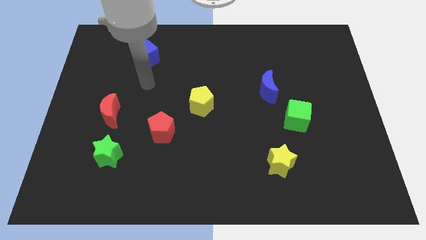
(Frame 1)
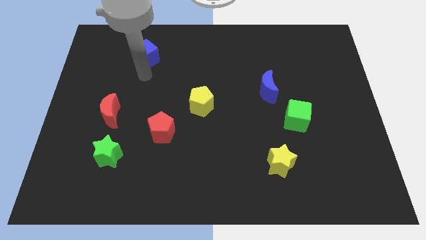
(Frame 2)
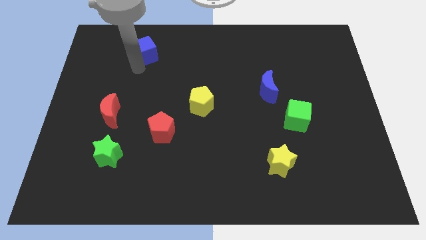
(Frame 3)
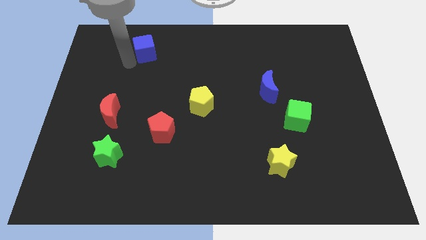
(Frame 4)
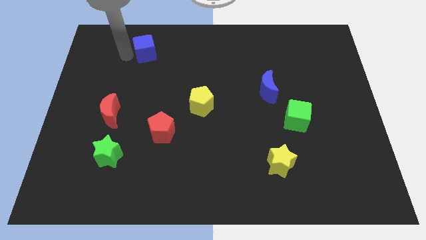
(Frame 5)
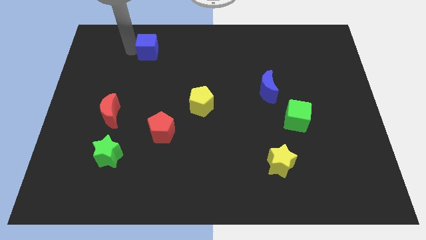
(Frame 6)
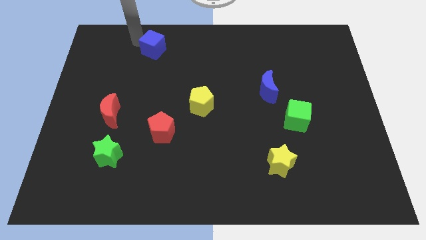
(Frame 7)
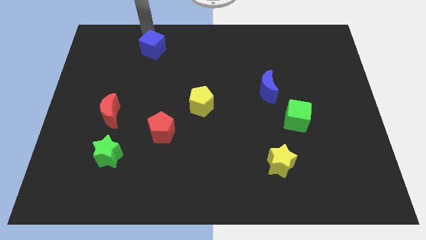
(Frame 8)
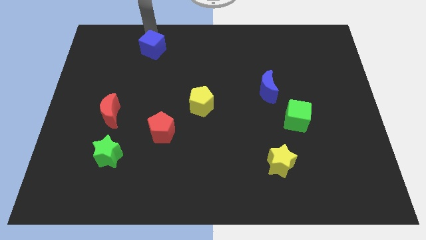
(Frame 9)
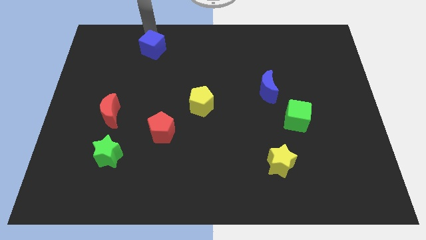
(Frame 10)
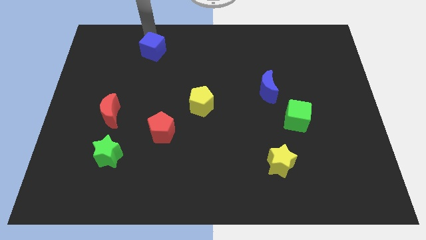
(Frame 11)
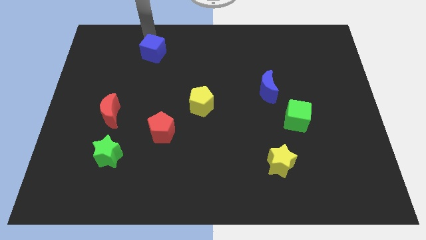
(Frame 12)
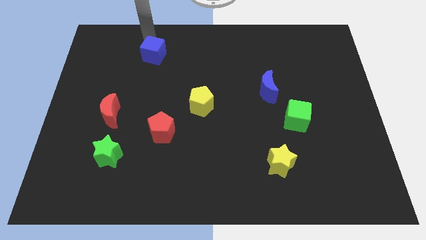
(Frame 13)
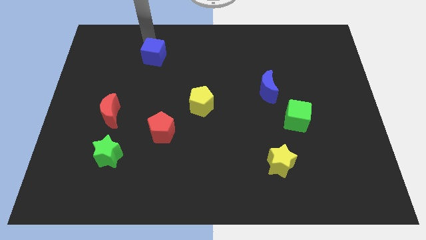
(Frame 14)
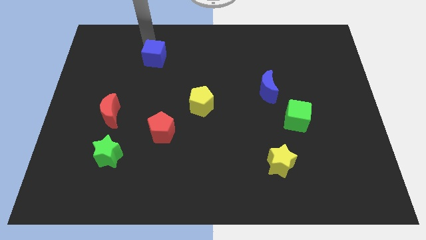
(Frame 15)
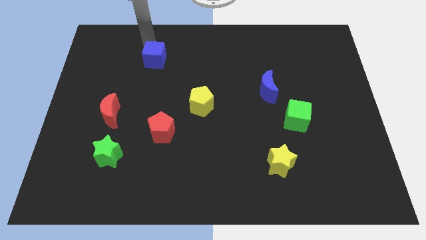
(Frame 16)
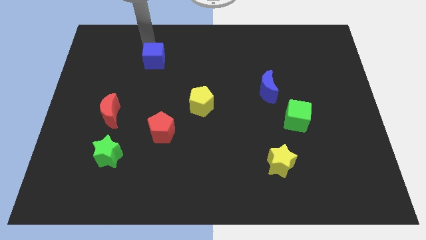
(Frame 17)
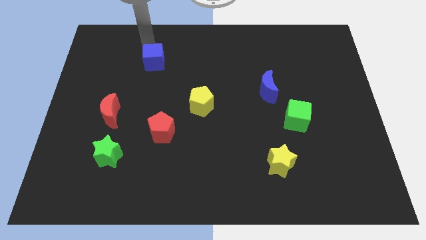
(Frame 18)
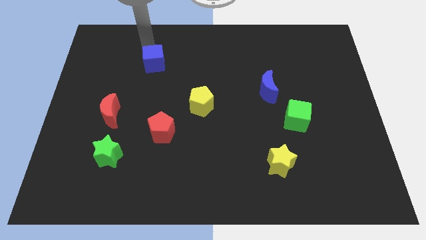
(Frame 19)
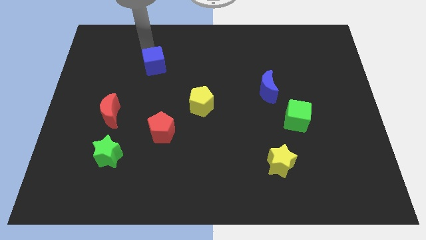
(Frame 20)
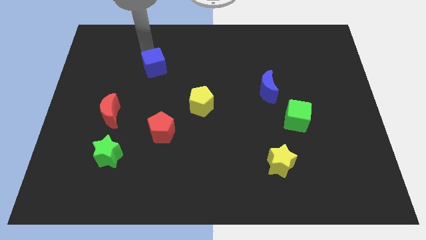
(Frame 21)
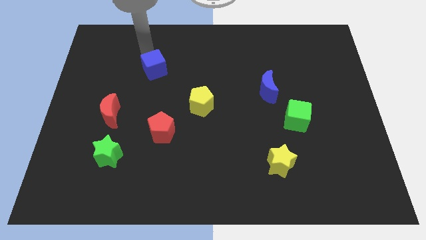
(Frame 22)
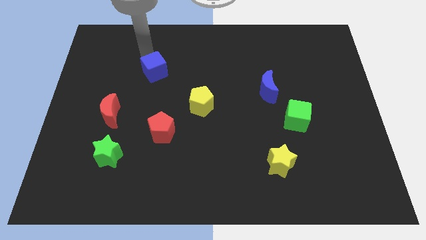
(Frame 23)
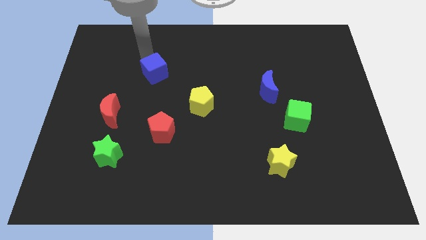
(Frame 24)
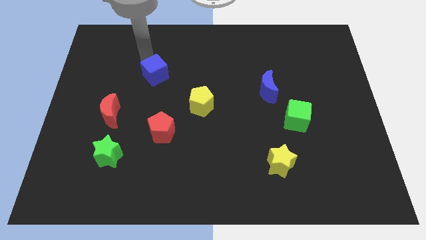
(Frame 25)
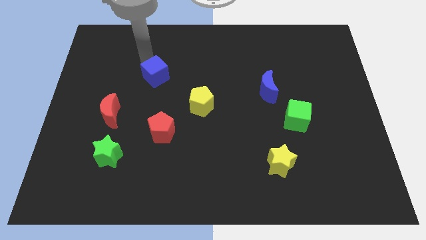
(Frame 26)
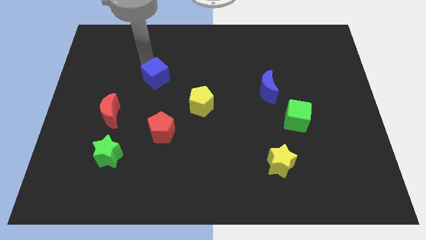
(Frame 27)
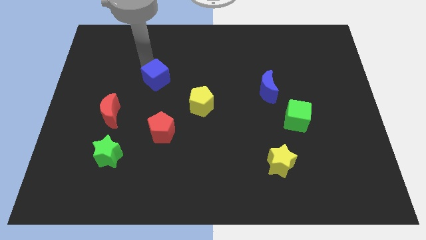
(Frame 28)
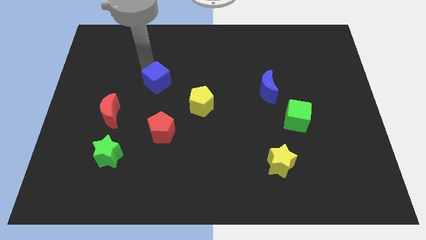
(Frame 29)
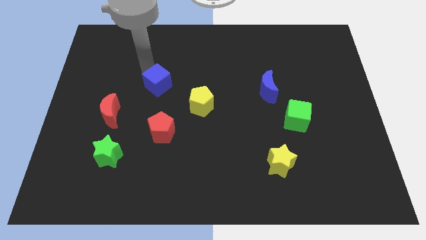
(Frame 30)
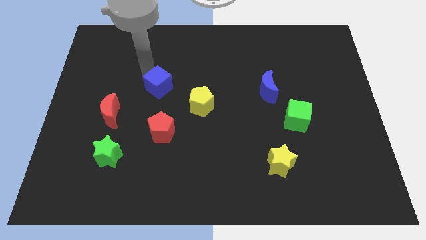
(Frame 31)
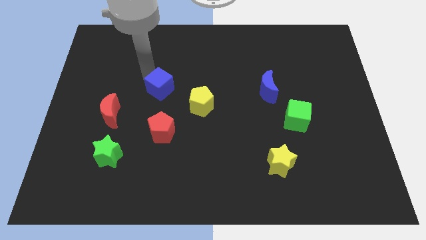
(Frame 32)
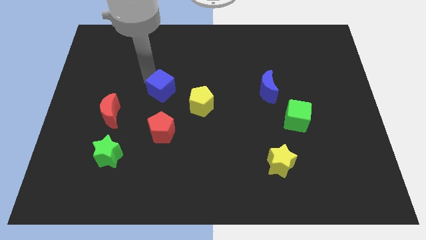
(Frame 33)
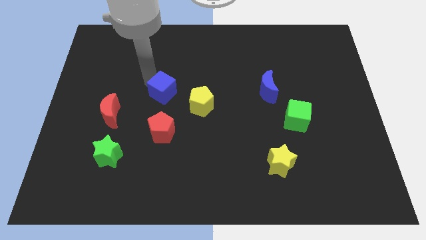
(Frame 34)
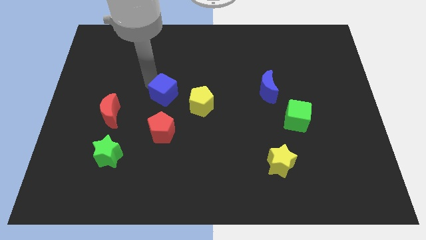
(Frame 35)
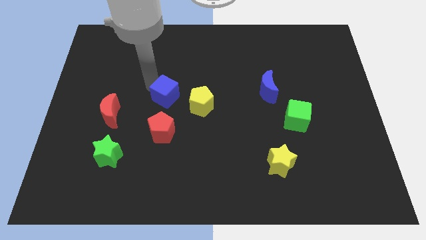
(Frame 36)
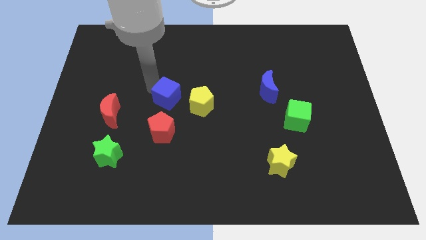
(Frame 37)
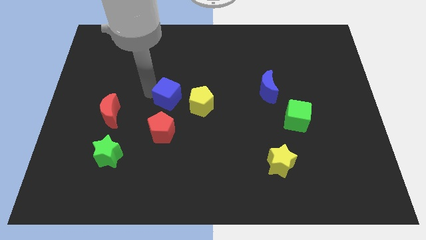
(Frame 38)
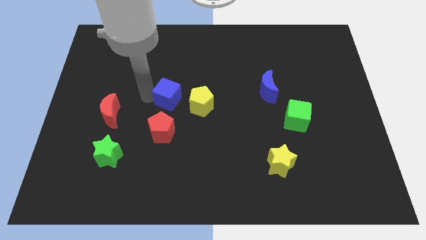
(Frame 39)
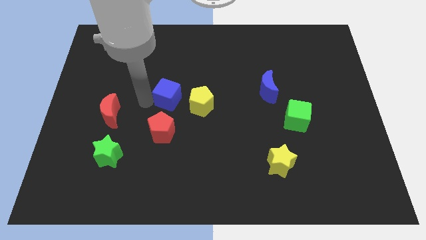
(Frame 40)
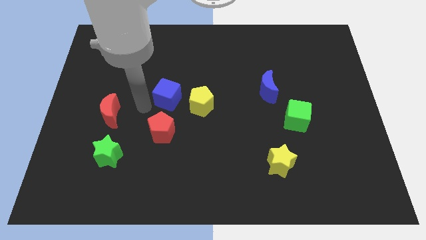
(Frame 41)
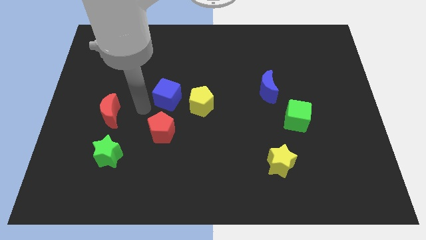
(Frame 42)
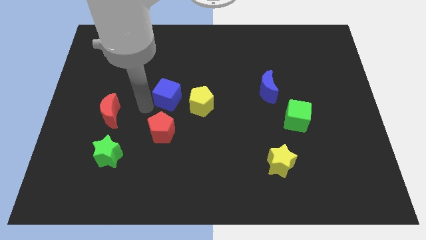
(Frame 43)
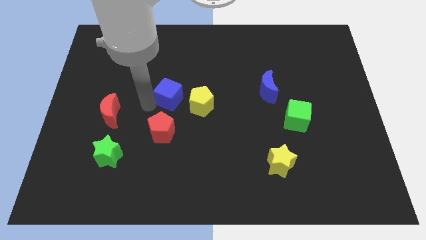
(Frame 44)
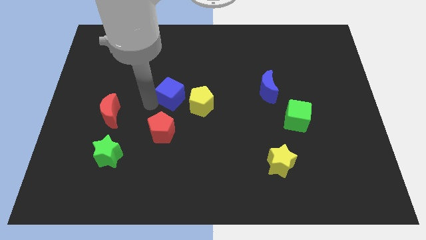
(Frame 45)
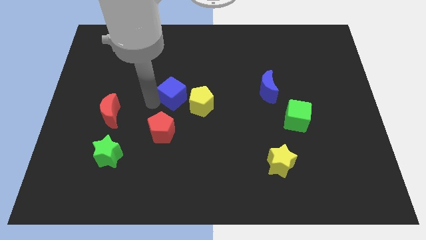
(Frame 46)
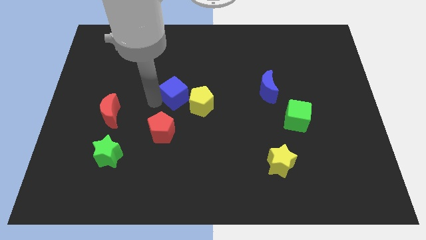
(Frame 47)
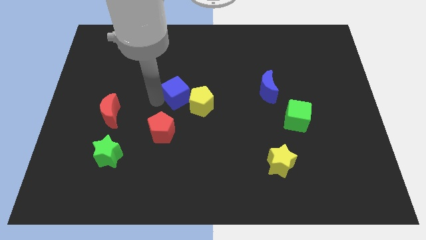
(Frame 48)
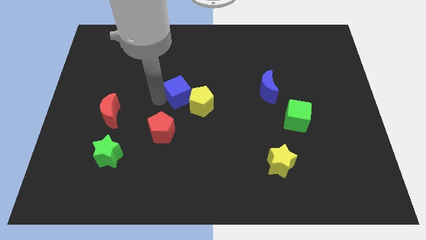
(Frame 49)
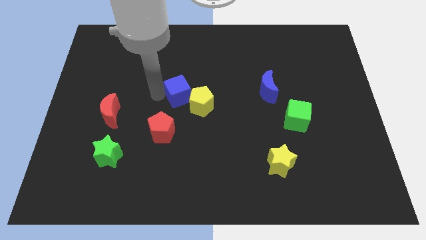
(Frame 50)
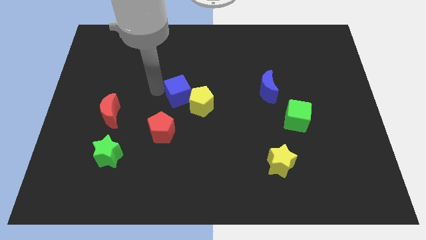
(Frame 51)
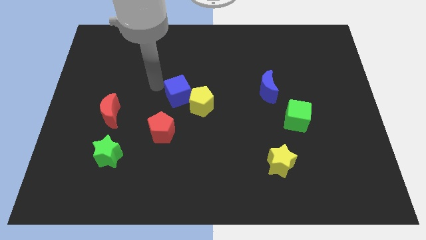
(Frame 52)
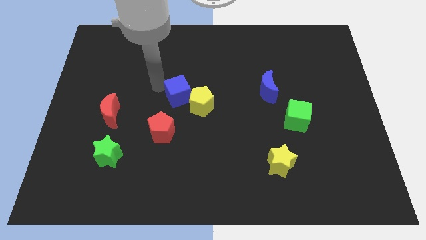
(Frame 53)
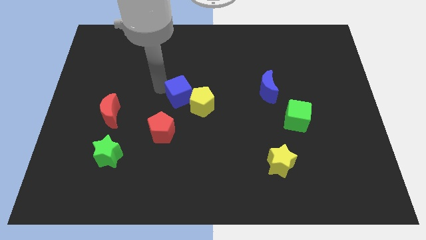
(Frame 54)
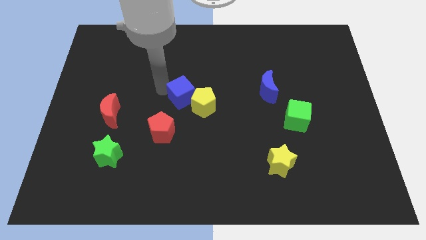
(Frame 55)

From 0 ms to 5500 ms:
move the blue cube next to the yellow pentagon
